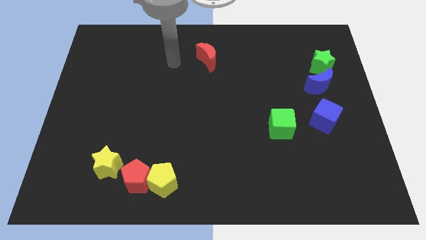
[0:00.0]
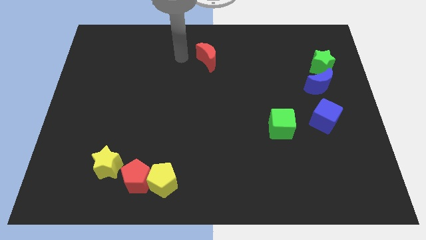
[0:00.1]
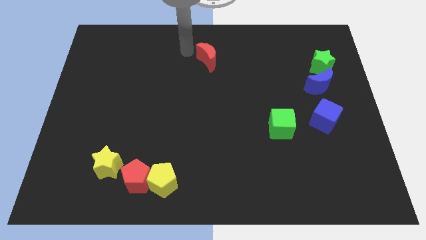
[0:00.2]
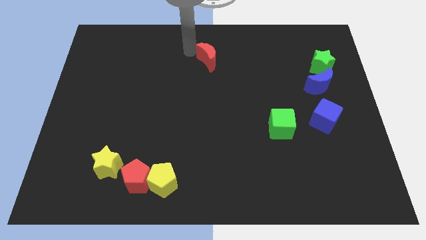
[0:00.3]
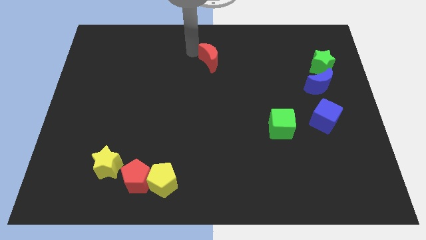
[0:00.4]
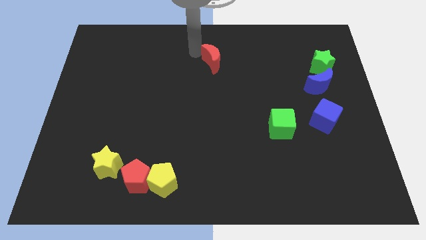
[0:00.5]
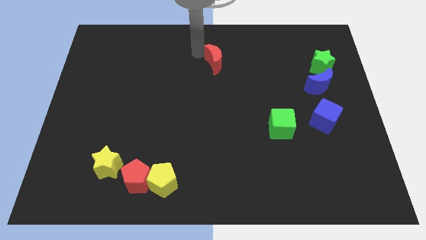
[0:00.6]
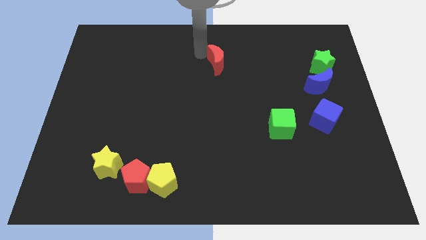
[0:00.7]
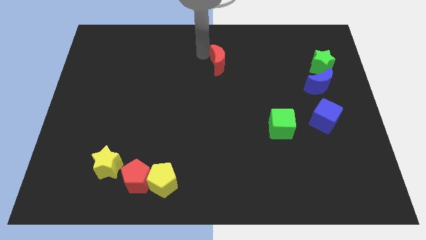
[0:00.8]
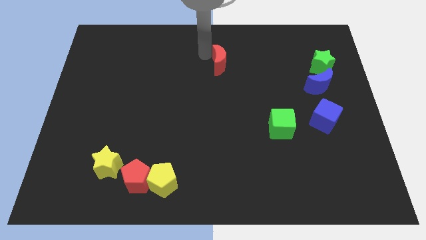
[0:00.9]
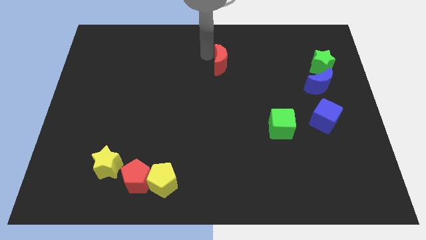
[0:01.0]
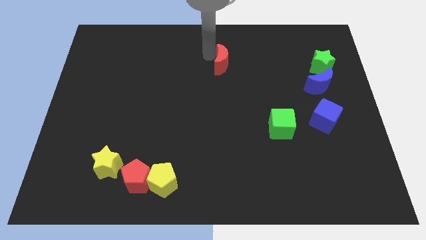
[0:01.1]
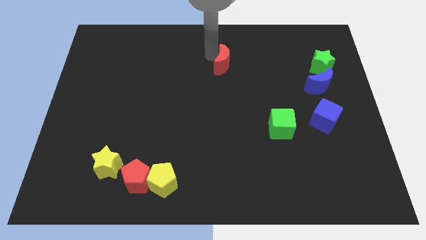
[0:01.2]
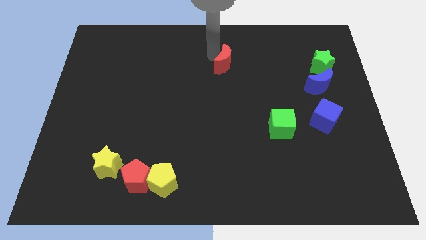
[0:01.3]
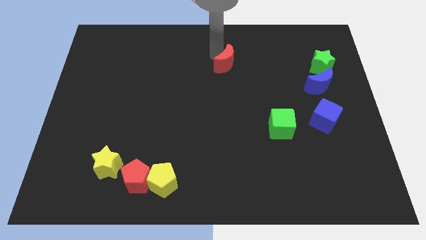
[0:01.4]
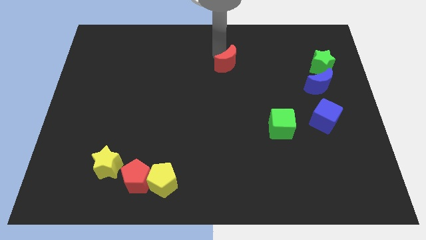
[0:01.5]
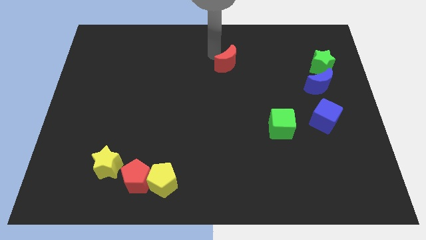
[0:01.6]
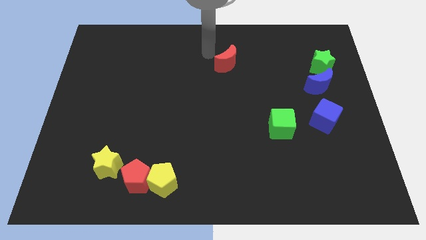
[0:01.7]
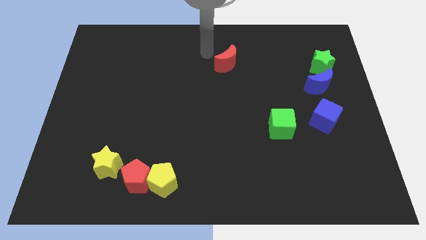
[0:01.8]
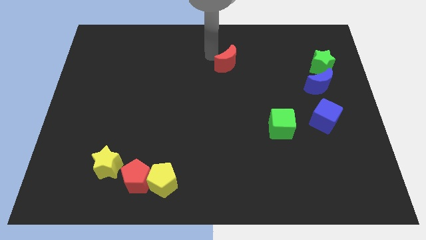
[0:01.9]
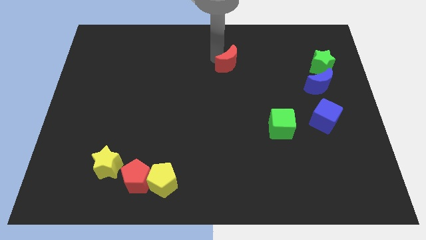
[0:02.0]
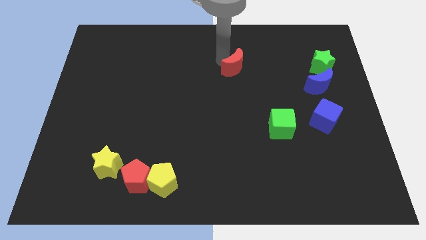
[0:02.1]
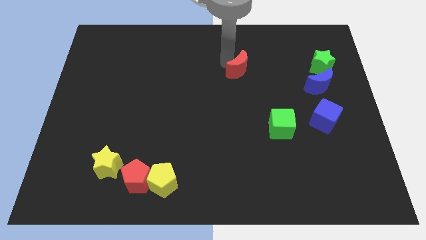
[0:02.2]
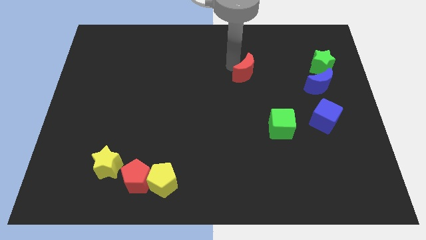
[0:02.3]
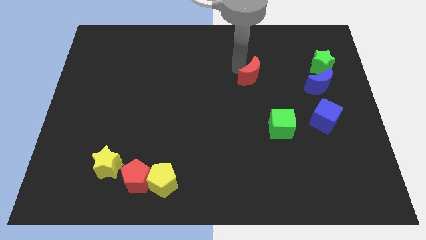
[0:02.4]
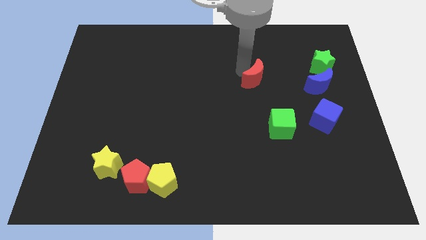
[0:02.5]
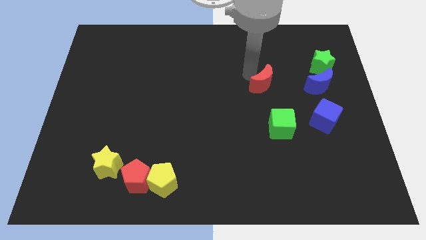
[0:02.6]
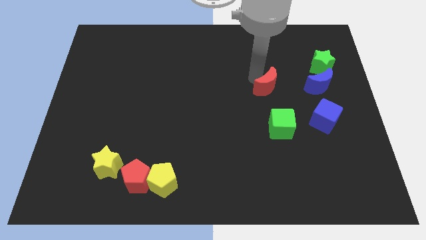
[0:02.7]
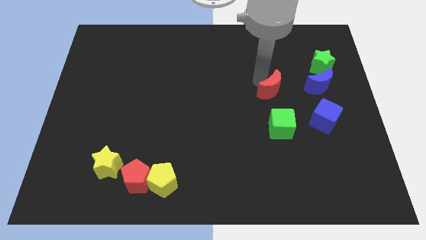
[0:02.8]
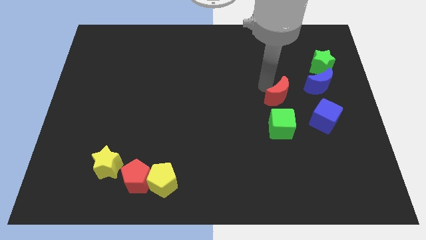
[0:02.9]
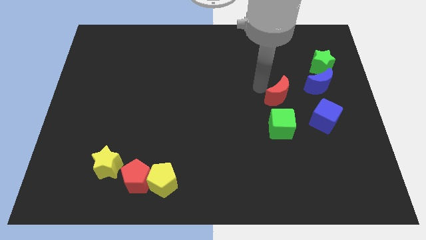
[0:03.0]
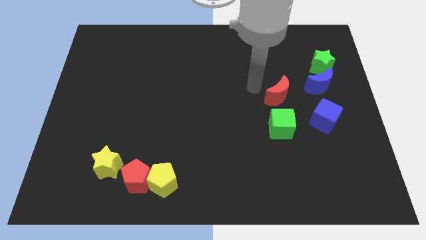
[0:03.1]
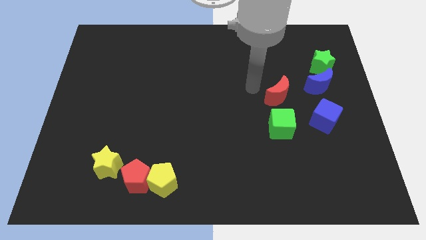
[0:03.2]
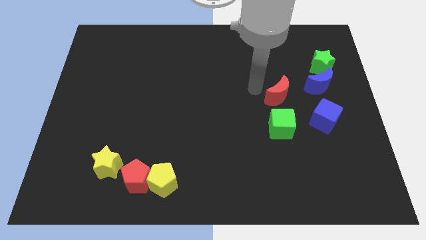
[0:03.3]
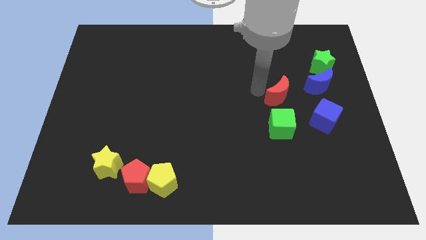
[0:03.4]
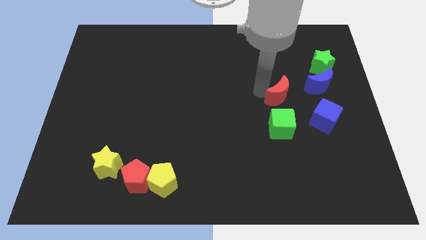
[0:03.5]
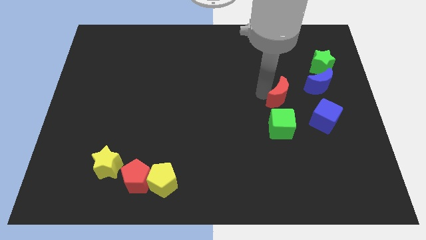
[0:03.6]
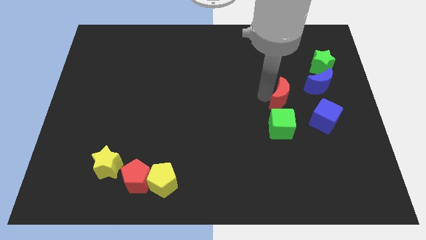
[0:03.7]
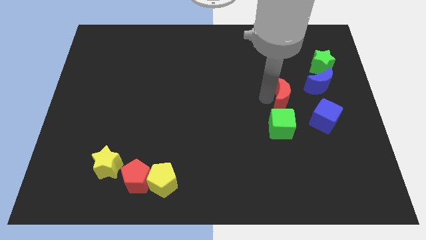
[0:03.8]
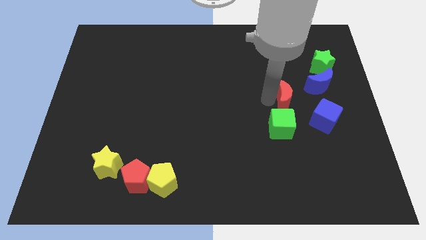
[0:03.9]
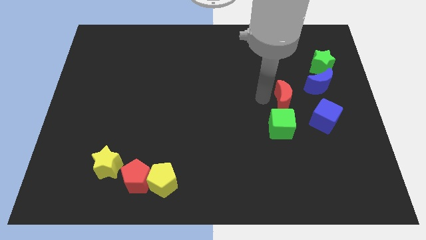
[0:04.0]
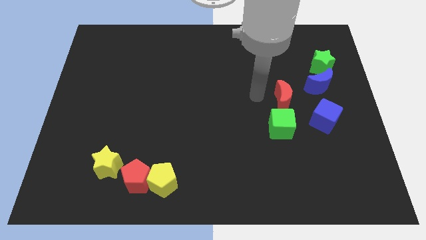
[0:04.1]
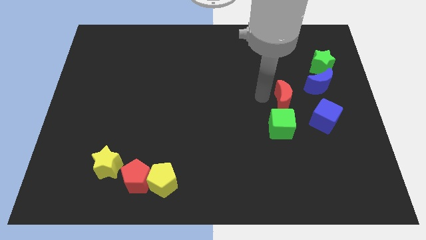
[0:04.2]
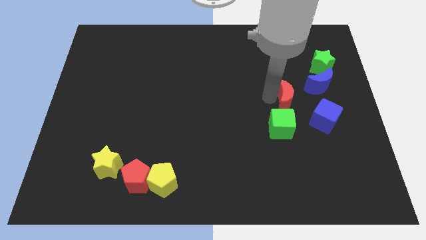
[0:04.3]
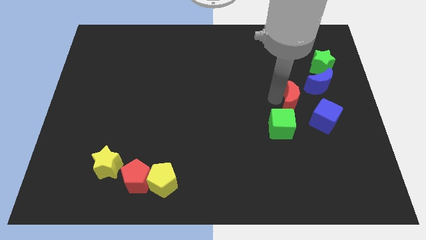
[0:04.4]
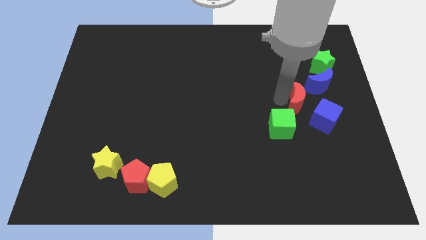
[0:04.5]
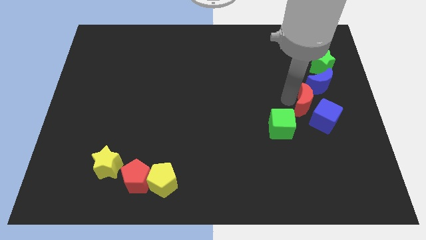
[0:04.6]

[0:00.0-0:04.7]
move the red moon next to the blue cube

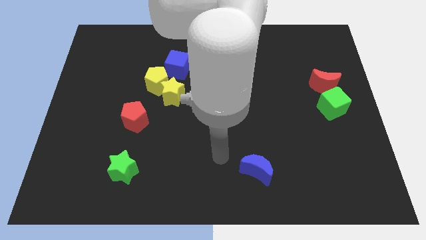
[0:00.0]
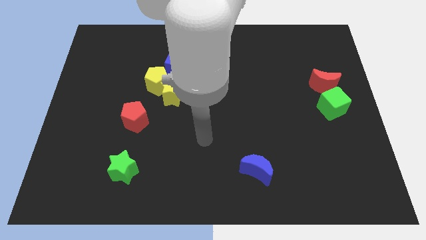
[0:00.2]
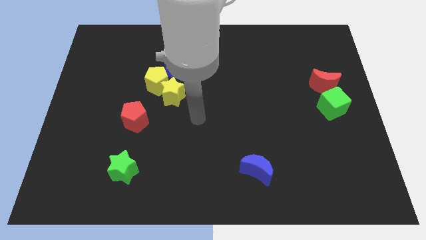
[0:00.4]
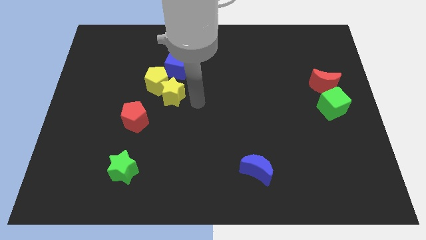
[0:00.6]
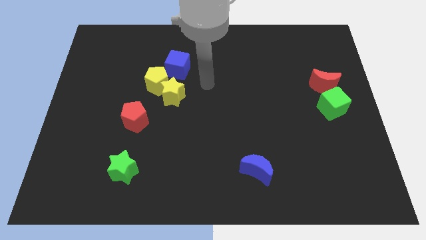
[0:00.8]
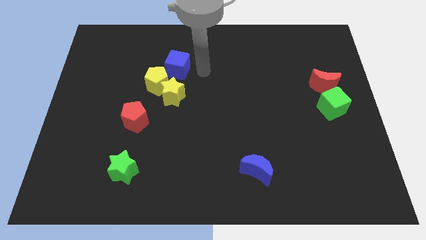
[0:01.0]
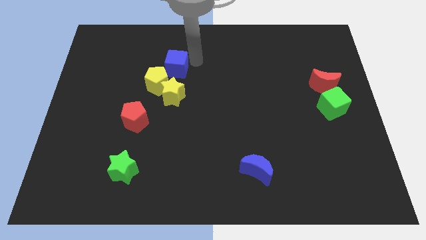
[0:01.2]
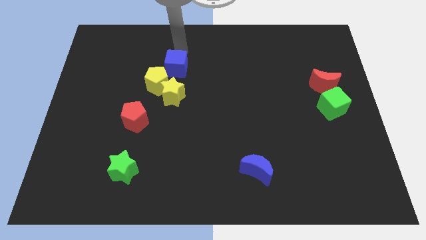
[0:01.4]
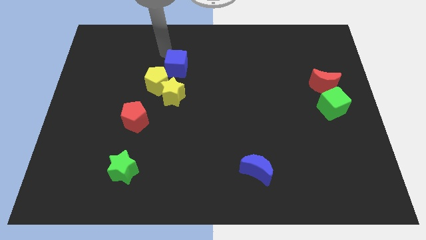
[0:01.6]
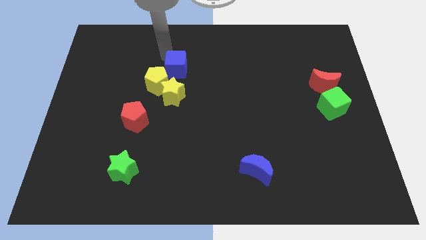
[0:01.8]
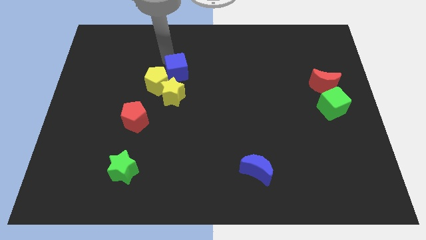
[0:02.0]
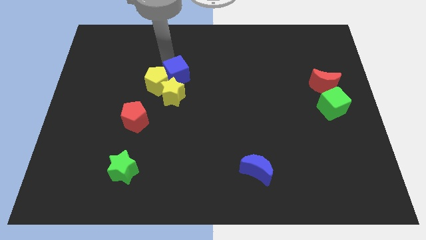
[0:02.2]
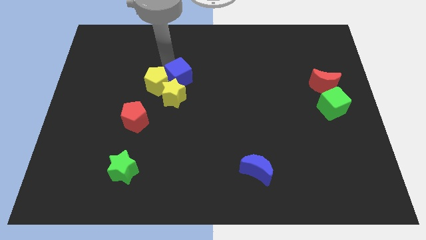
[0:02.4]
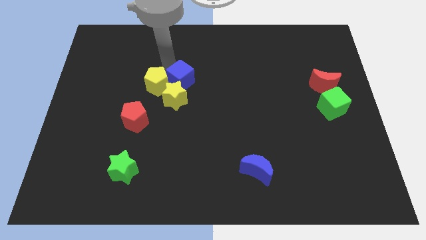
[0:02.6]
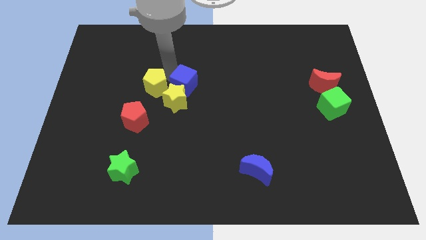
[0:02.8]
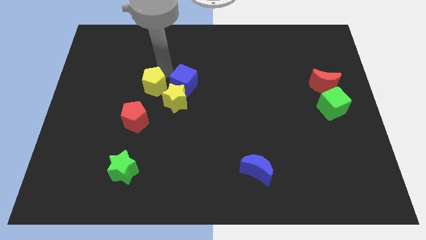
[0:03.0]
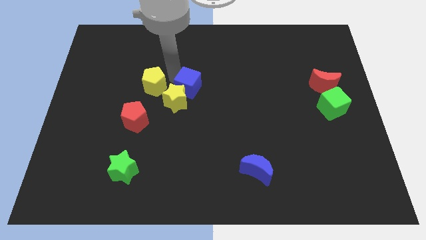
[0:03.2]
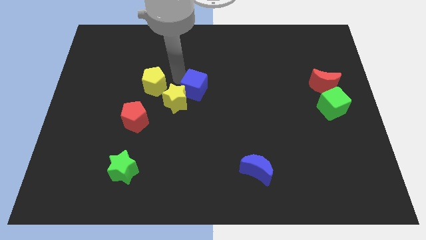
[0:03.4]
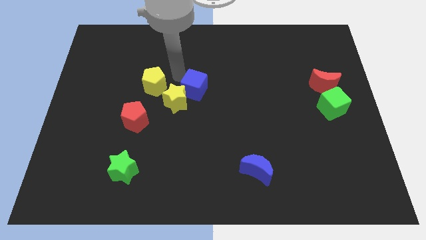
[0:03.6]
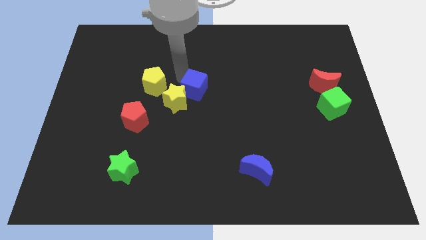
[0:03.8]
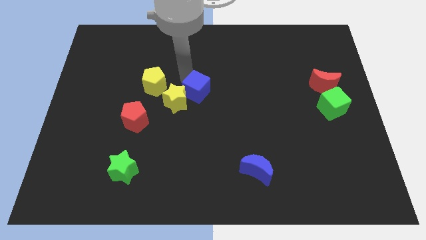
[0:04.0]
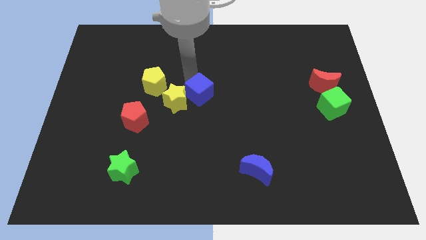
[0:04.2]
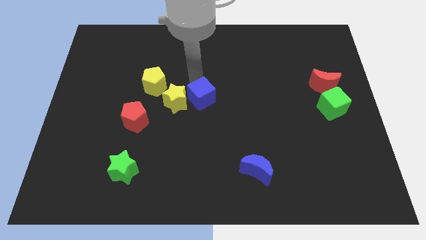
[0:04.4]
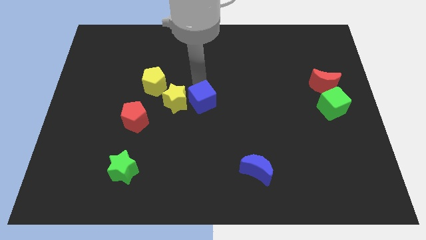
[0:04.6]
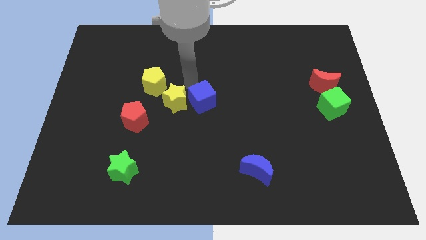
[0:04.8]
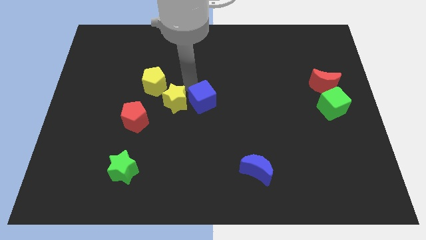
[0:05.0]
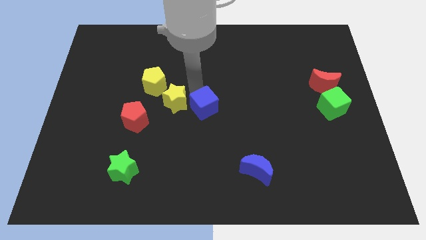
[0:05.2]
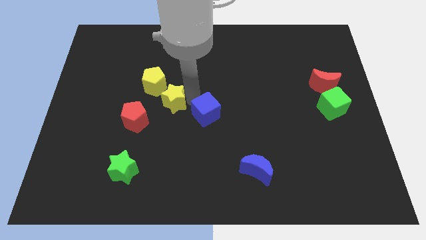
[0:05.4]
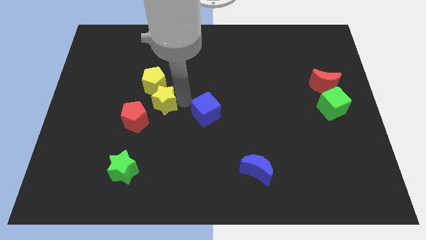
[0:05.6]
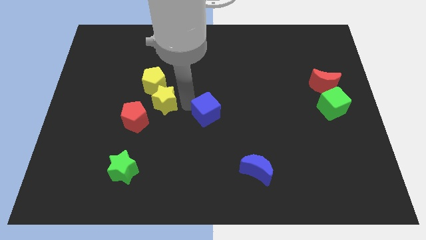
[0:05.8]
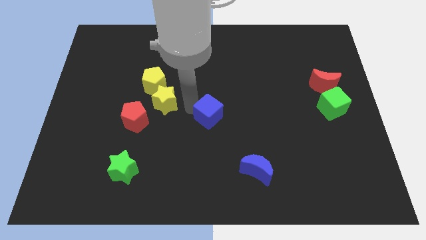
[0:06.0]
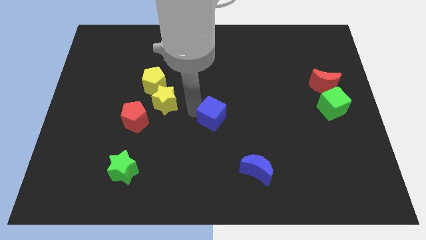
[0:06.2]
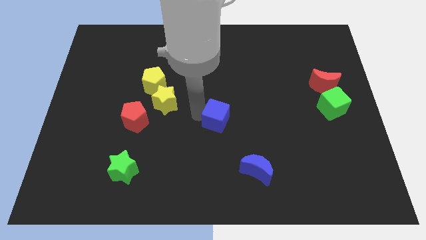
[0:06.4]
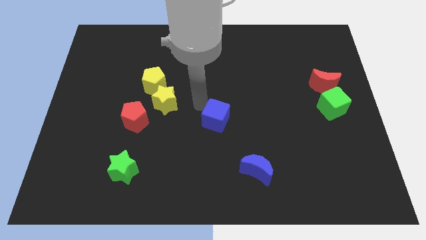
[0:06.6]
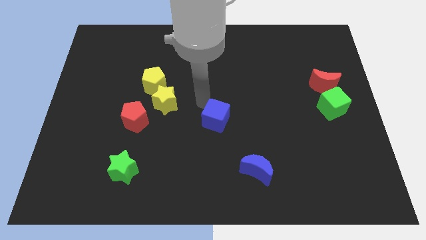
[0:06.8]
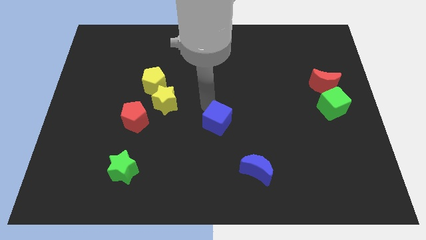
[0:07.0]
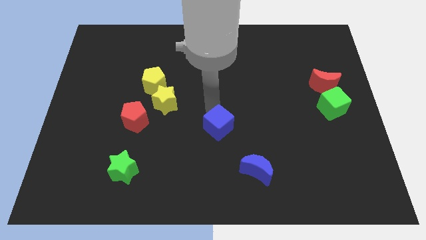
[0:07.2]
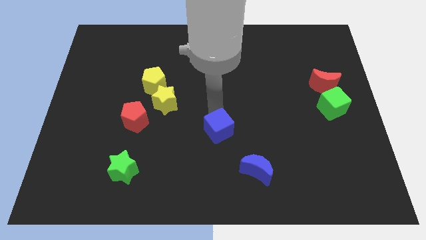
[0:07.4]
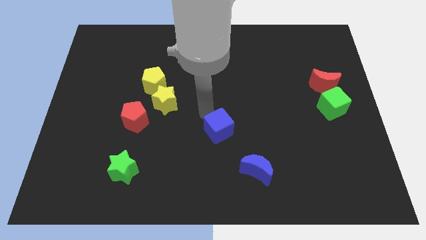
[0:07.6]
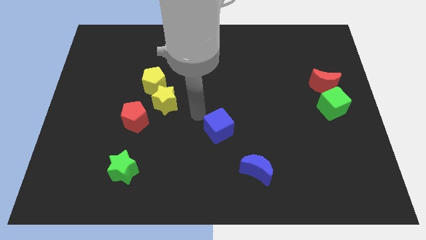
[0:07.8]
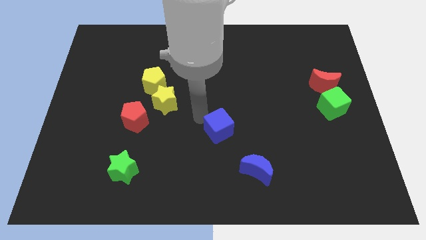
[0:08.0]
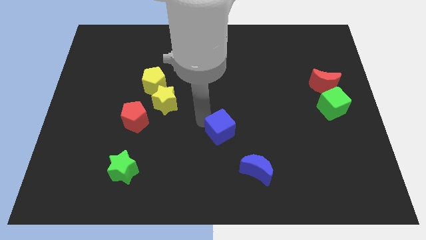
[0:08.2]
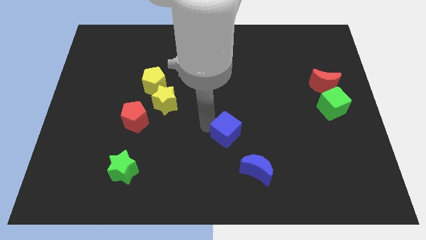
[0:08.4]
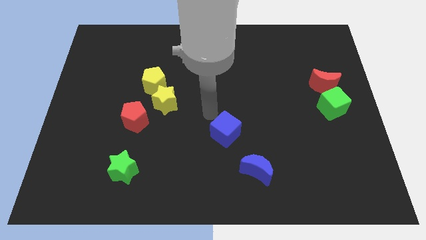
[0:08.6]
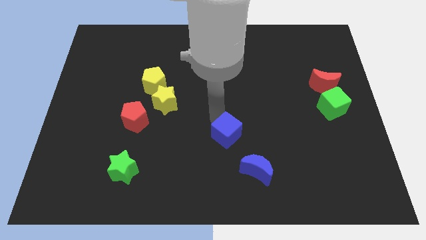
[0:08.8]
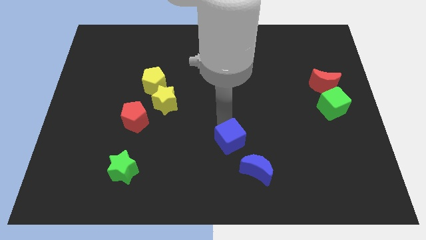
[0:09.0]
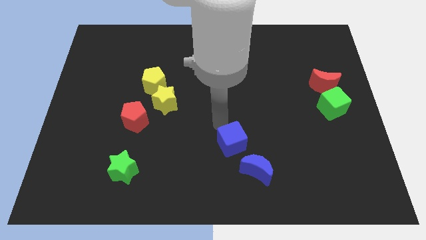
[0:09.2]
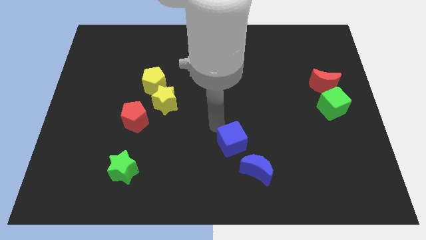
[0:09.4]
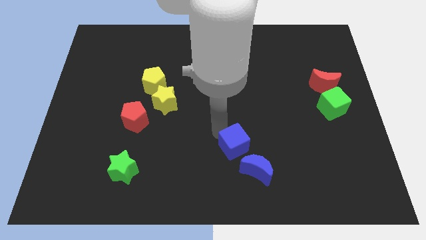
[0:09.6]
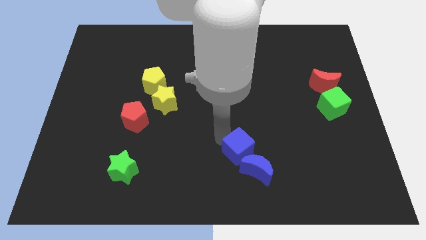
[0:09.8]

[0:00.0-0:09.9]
slide the blue cube towards the blue moon
